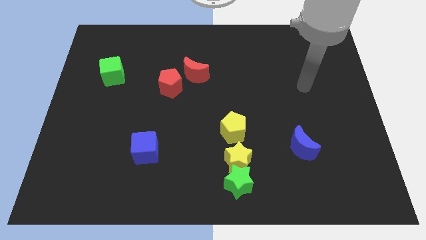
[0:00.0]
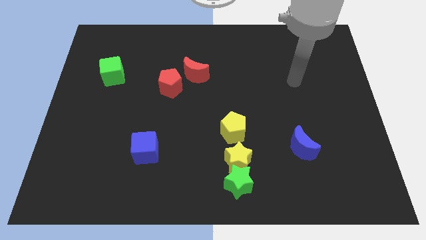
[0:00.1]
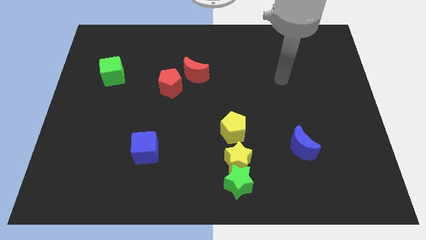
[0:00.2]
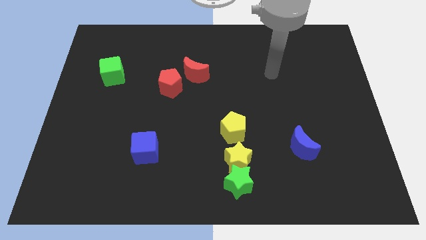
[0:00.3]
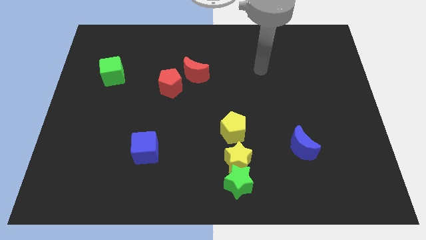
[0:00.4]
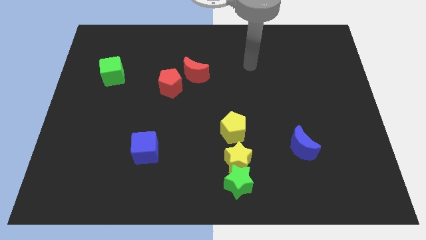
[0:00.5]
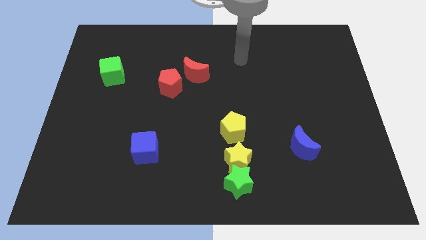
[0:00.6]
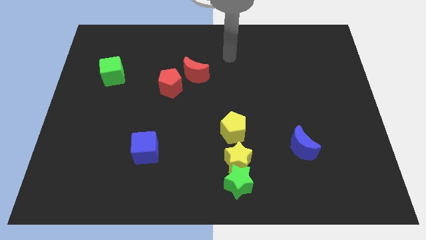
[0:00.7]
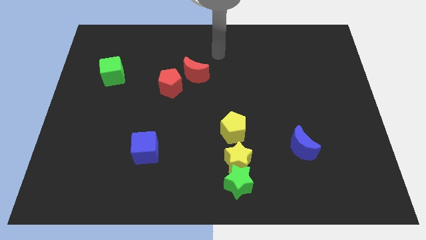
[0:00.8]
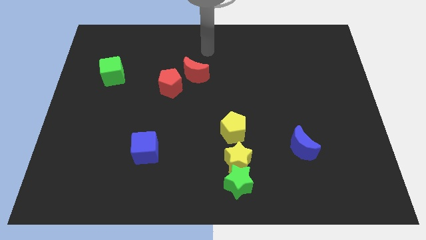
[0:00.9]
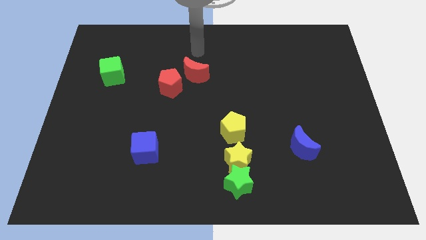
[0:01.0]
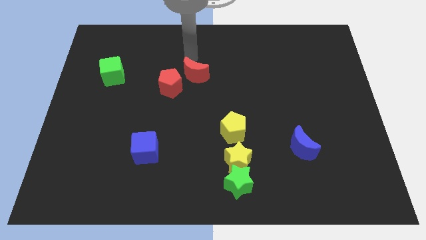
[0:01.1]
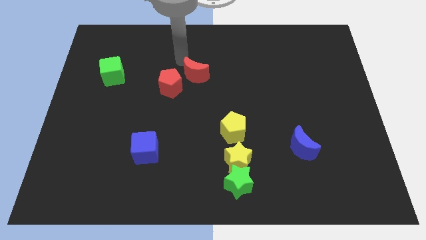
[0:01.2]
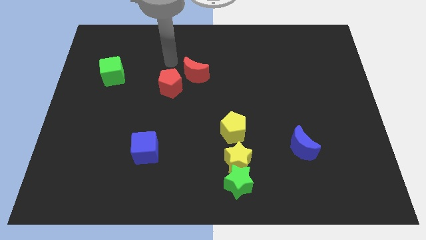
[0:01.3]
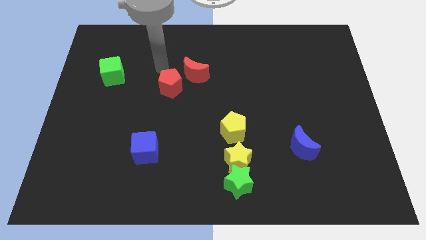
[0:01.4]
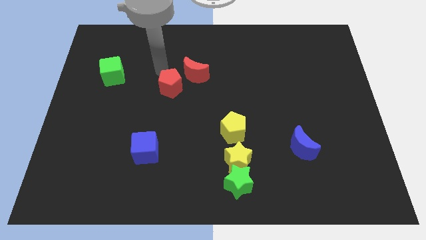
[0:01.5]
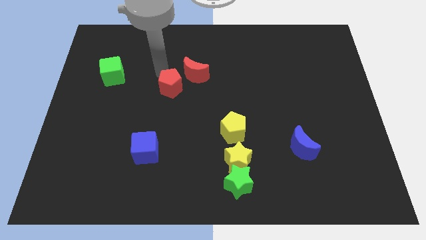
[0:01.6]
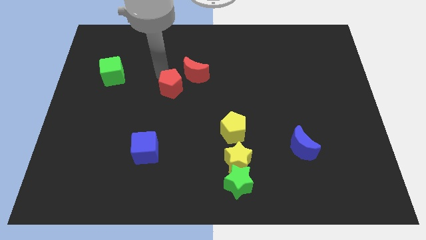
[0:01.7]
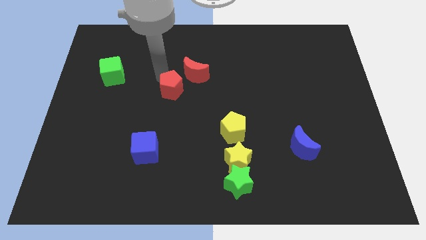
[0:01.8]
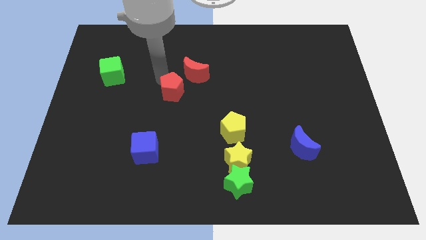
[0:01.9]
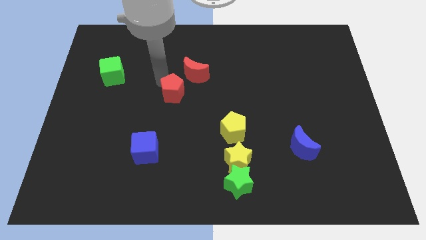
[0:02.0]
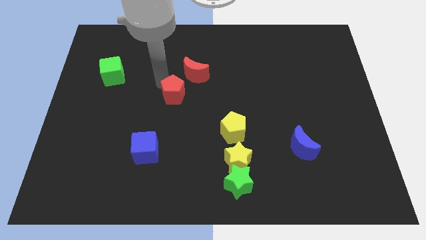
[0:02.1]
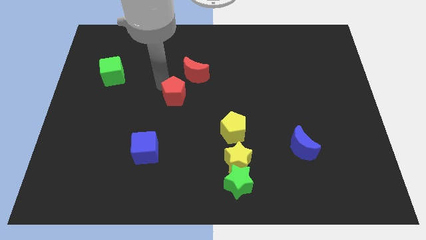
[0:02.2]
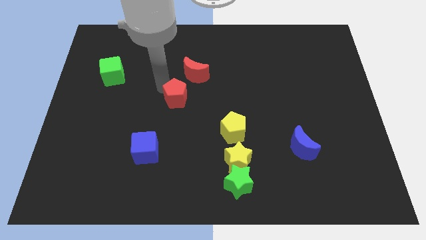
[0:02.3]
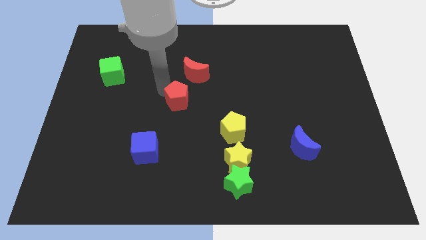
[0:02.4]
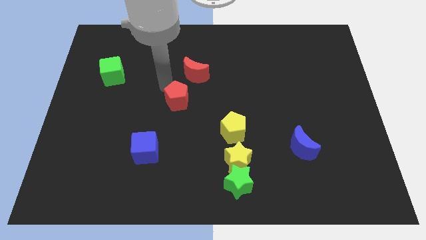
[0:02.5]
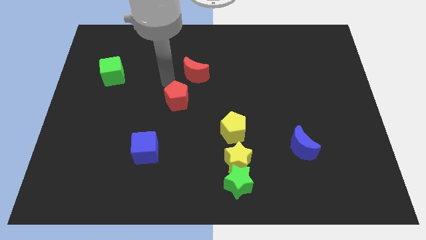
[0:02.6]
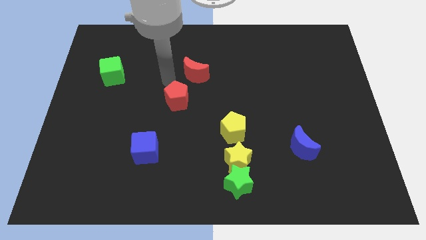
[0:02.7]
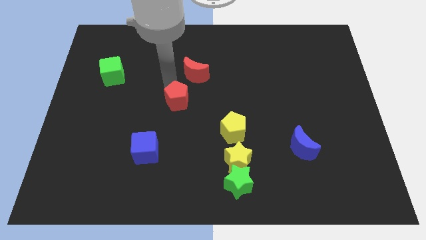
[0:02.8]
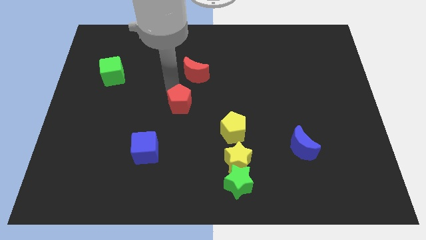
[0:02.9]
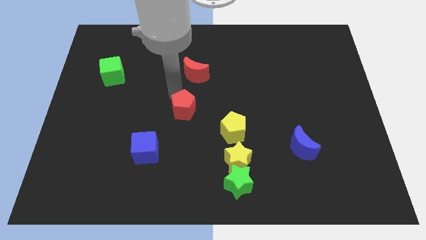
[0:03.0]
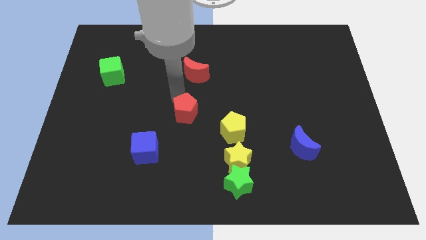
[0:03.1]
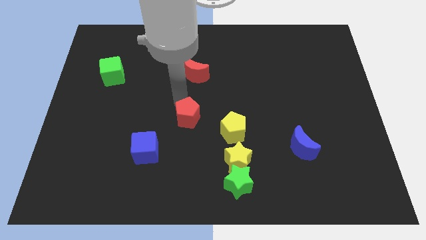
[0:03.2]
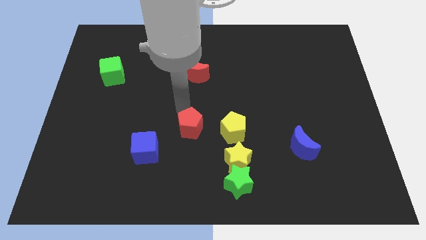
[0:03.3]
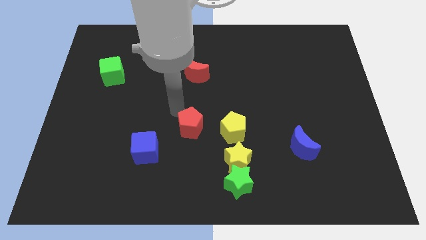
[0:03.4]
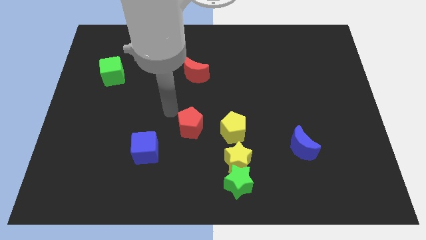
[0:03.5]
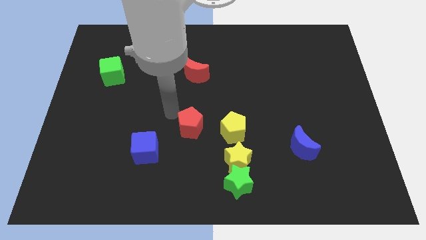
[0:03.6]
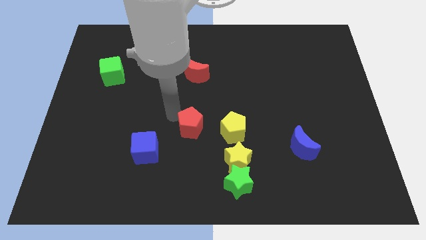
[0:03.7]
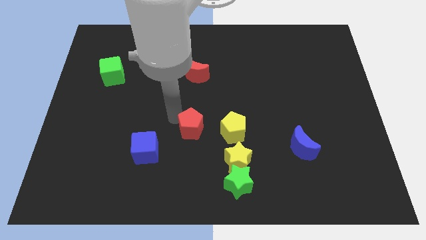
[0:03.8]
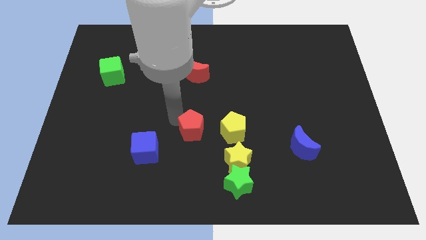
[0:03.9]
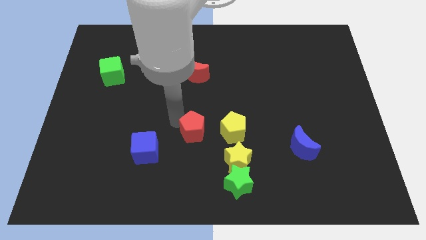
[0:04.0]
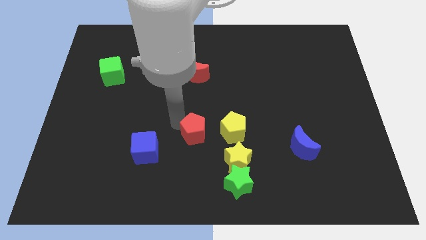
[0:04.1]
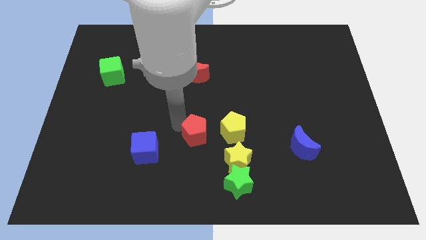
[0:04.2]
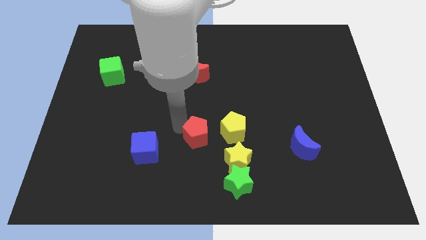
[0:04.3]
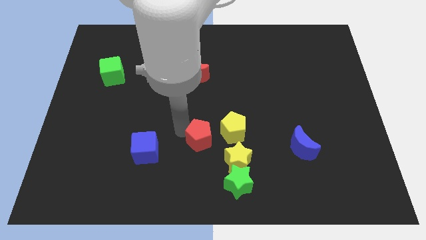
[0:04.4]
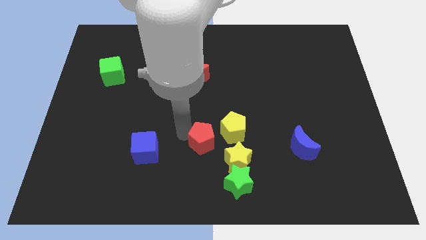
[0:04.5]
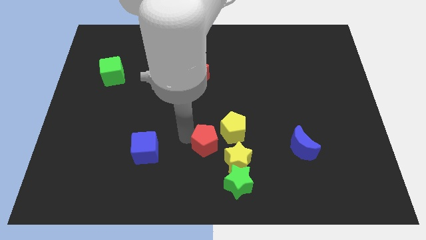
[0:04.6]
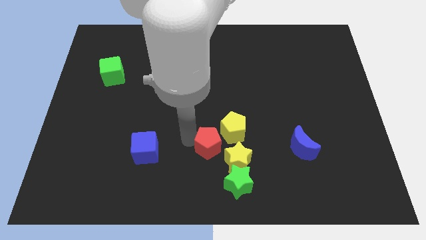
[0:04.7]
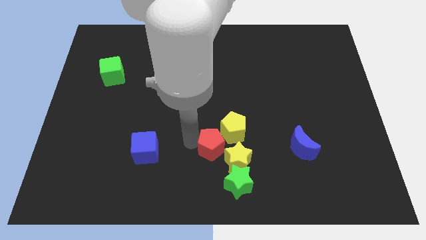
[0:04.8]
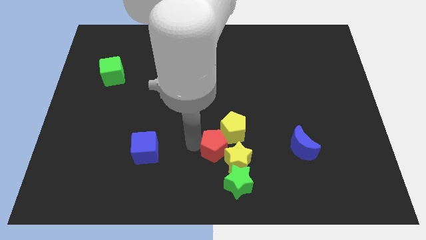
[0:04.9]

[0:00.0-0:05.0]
slide the red pentagon next to the yellow star

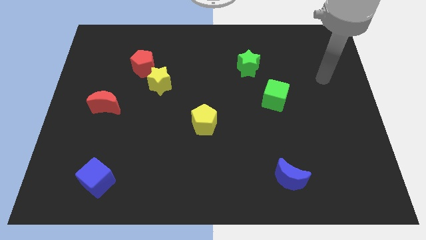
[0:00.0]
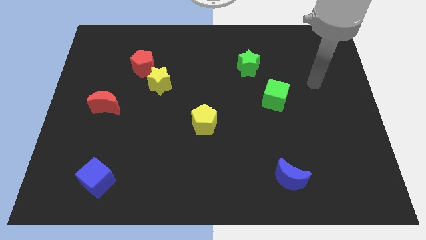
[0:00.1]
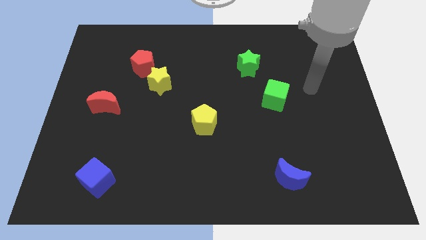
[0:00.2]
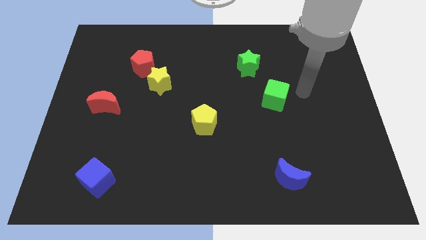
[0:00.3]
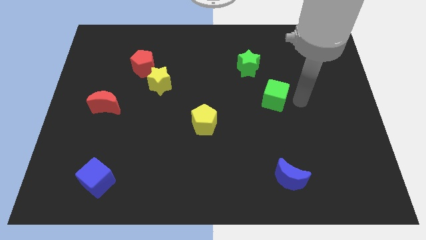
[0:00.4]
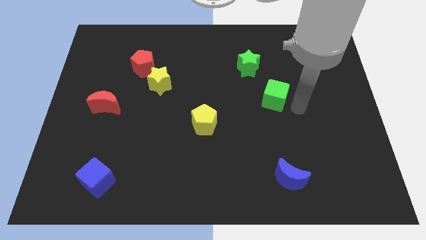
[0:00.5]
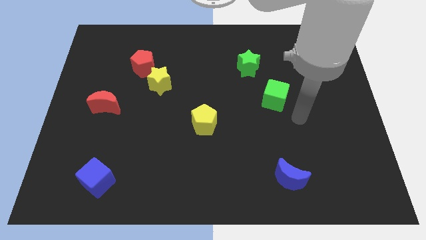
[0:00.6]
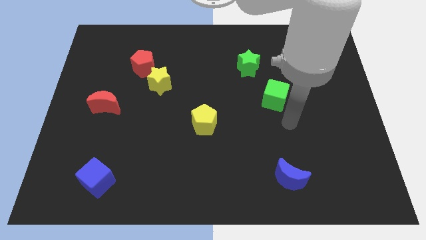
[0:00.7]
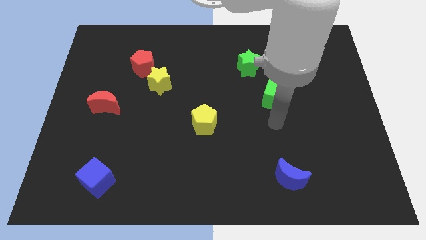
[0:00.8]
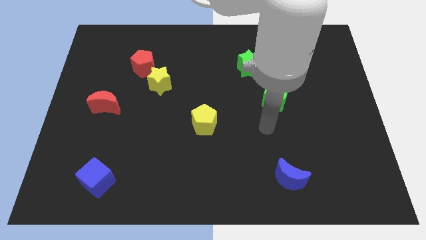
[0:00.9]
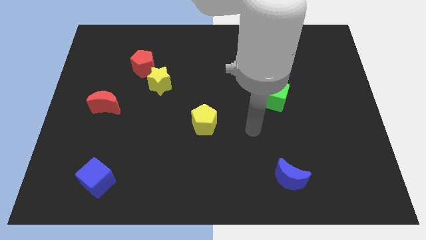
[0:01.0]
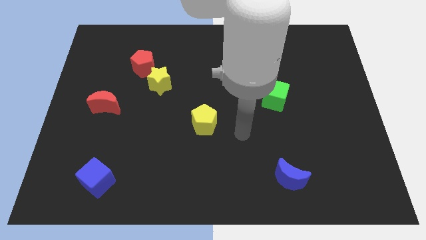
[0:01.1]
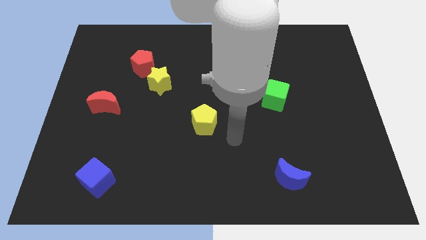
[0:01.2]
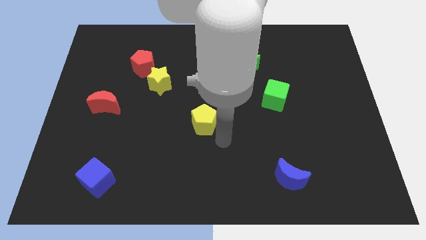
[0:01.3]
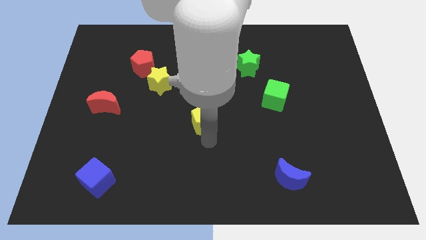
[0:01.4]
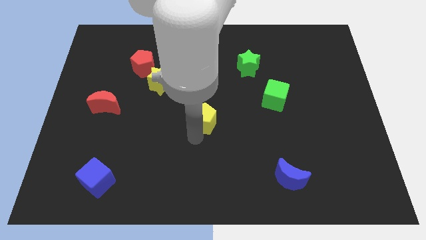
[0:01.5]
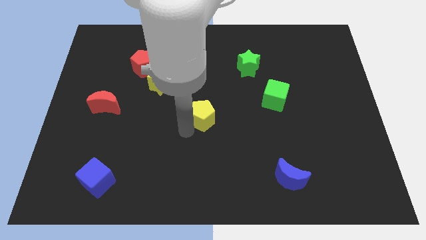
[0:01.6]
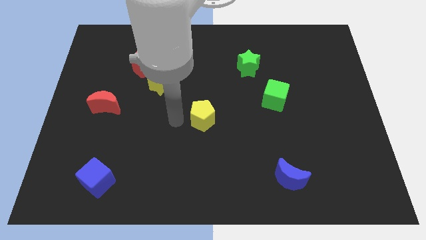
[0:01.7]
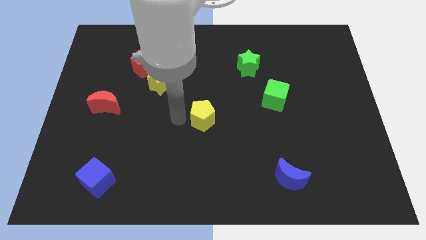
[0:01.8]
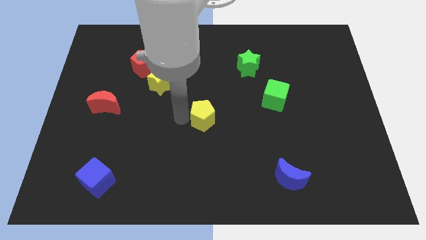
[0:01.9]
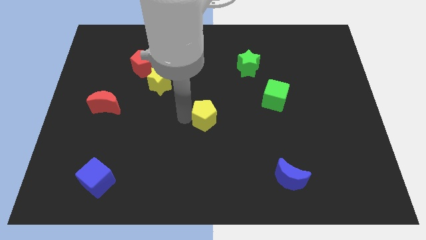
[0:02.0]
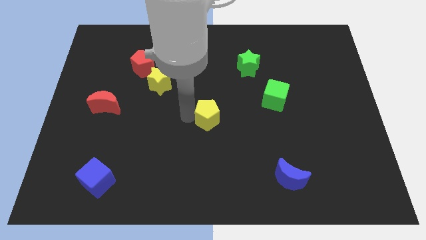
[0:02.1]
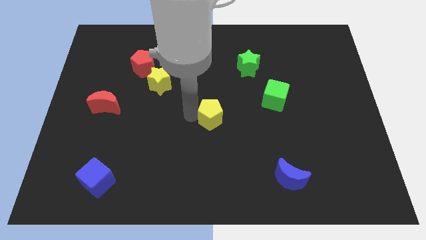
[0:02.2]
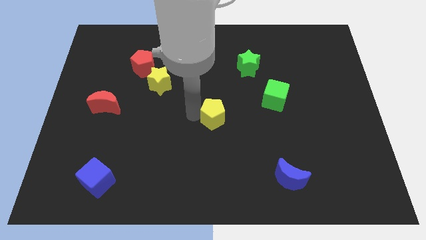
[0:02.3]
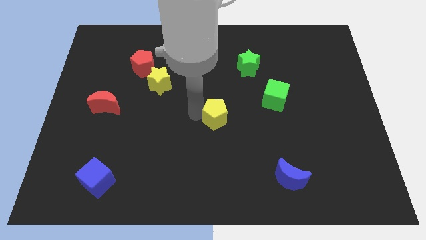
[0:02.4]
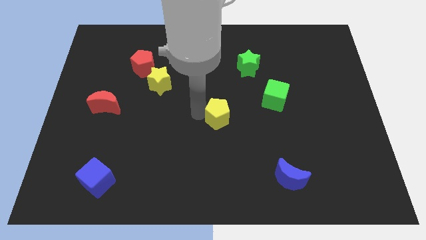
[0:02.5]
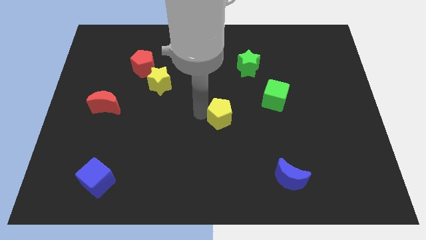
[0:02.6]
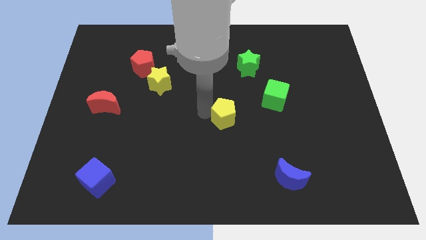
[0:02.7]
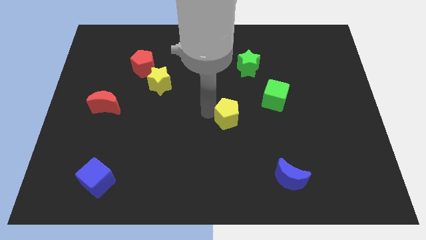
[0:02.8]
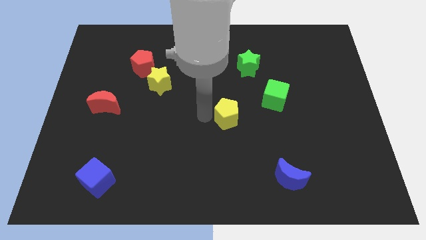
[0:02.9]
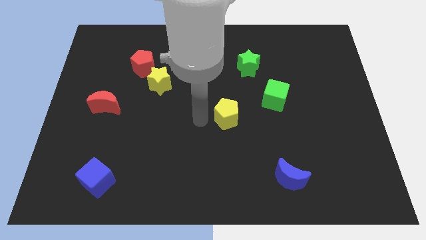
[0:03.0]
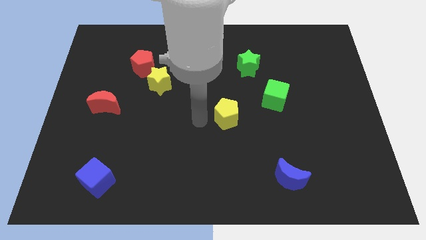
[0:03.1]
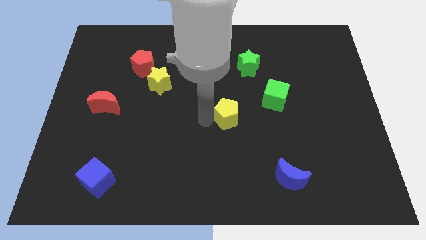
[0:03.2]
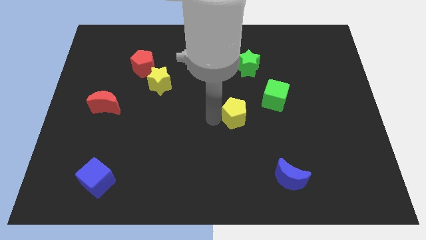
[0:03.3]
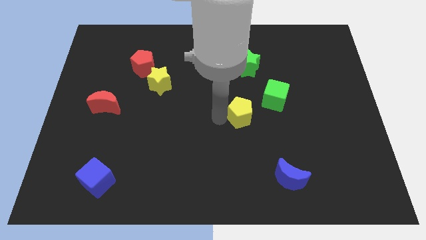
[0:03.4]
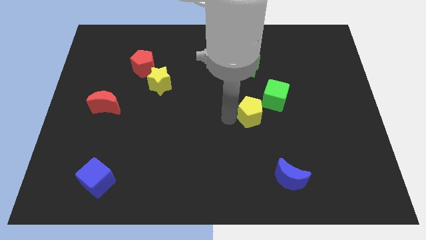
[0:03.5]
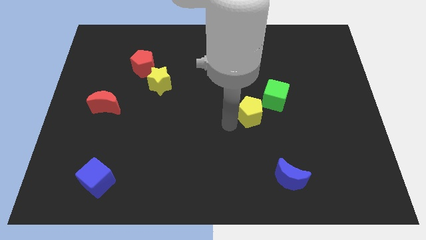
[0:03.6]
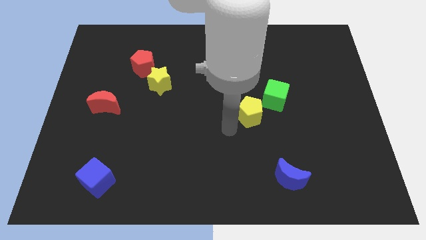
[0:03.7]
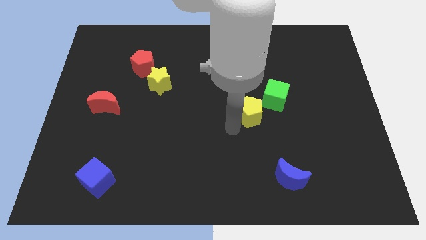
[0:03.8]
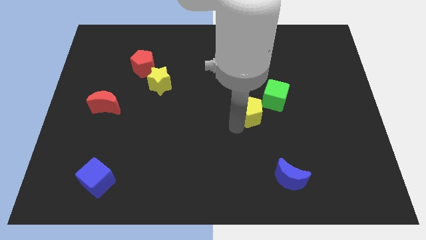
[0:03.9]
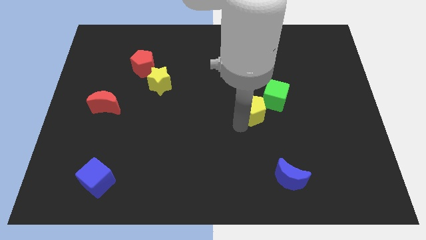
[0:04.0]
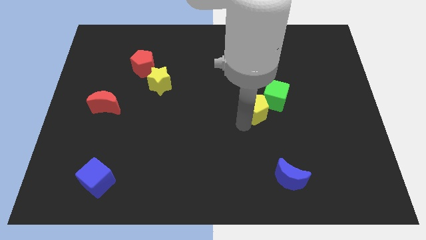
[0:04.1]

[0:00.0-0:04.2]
put the yellow pentagon close to the green cube
